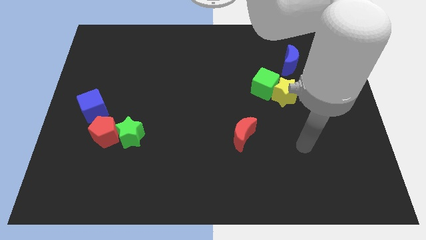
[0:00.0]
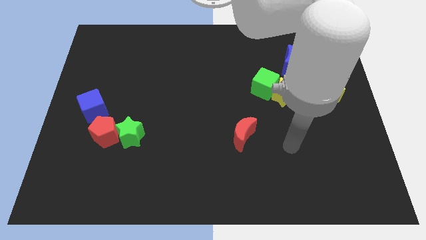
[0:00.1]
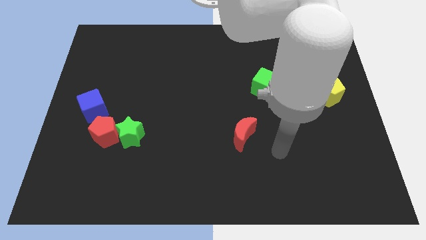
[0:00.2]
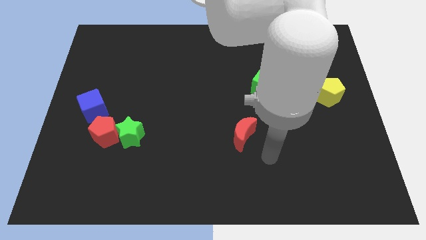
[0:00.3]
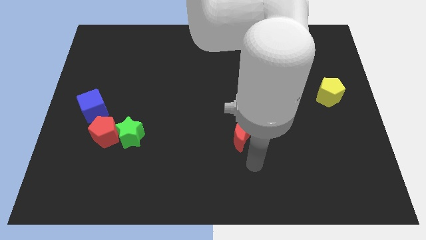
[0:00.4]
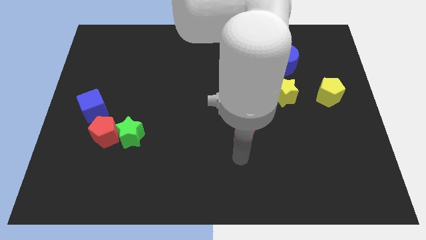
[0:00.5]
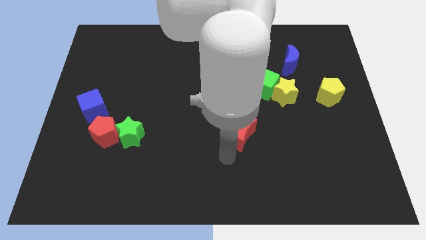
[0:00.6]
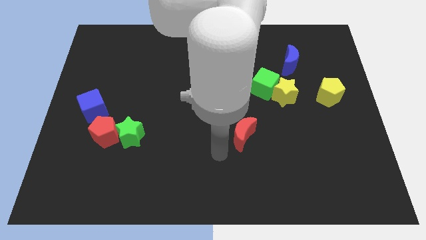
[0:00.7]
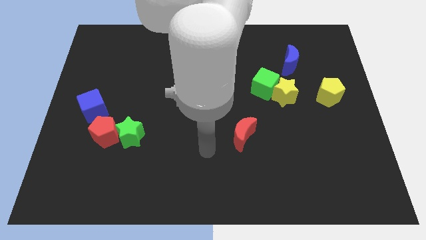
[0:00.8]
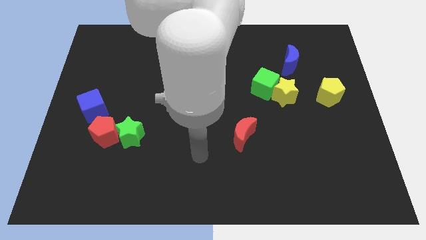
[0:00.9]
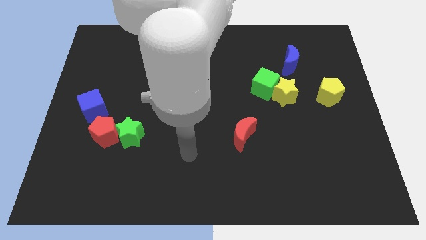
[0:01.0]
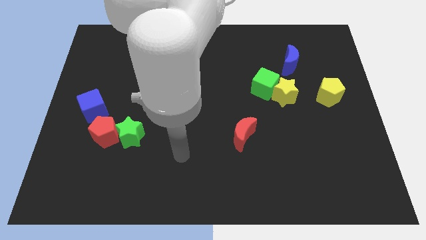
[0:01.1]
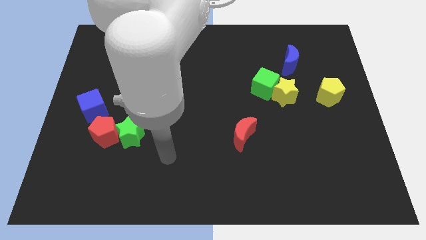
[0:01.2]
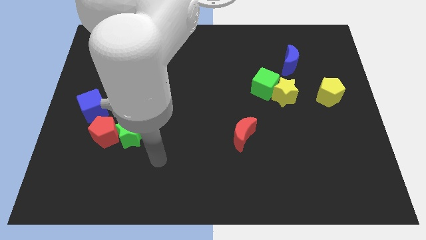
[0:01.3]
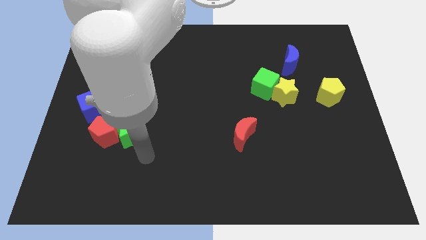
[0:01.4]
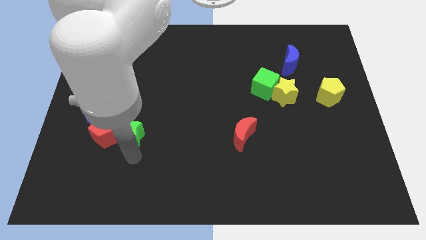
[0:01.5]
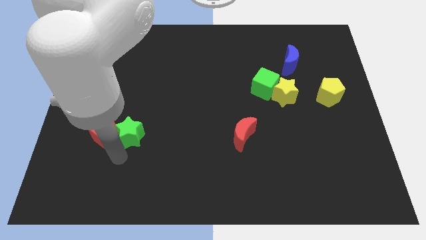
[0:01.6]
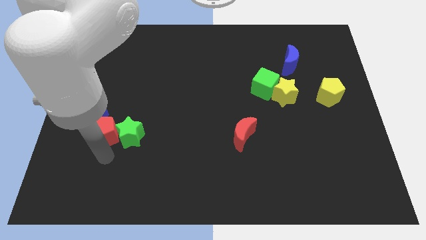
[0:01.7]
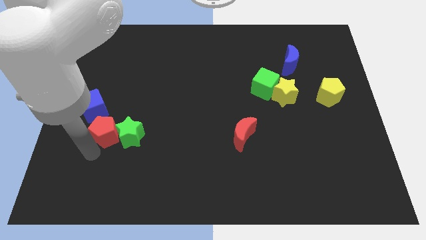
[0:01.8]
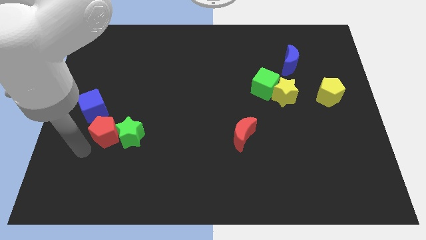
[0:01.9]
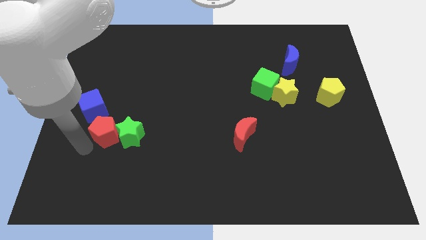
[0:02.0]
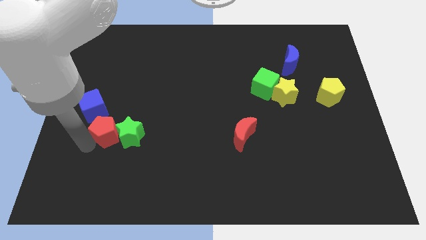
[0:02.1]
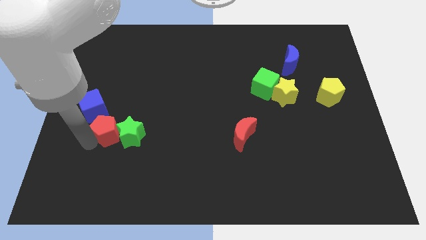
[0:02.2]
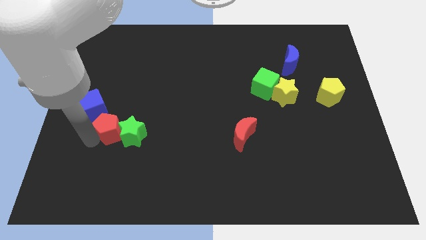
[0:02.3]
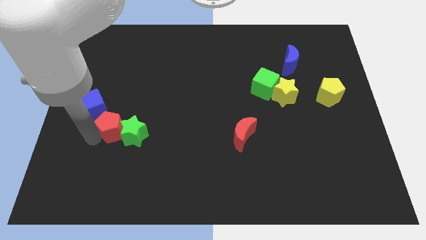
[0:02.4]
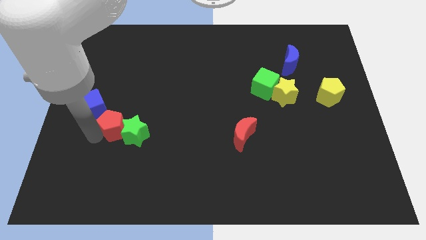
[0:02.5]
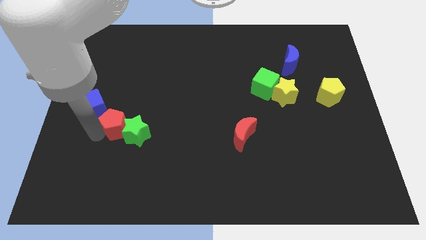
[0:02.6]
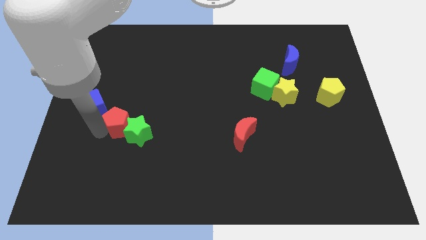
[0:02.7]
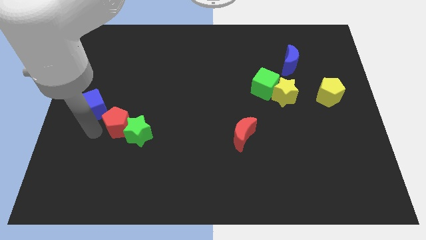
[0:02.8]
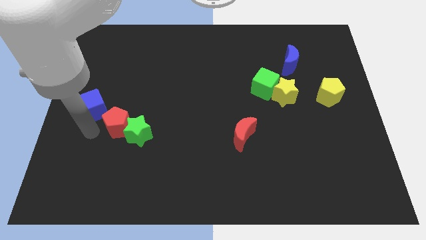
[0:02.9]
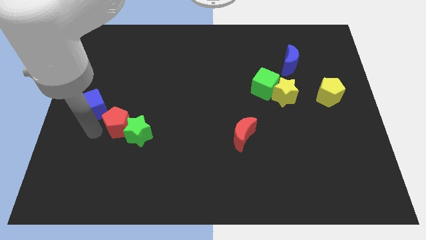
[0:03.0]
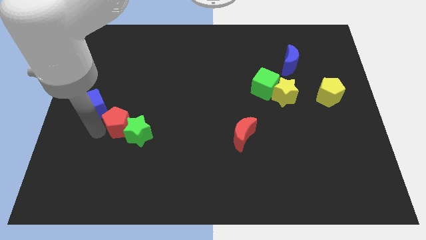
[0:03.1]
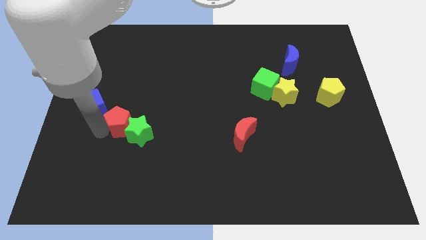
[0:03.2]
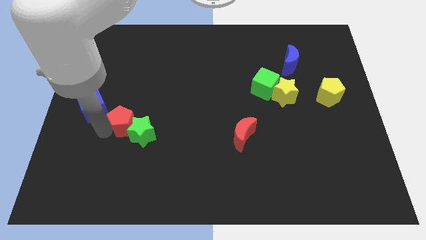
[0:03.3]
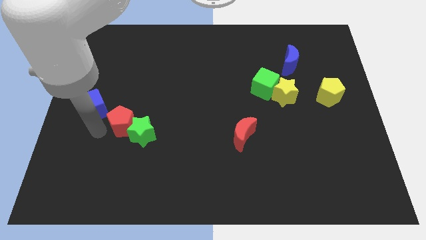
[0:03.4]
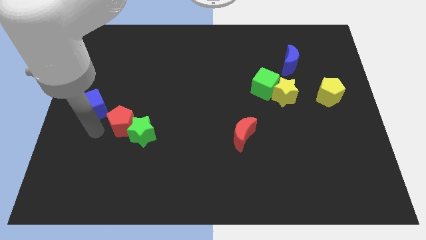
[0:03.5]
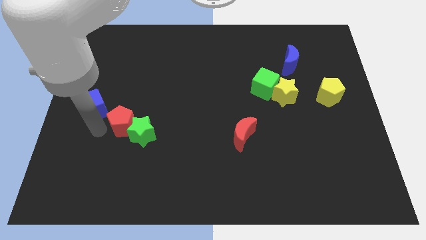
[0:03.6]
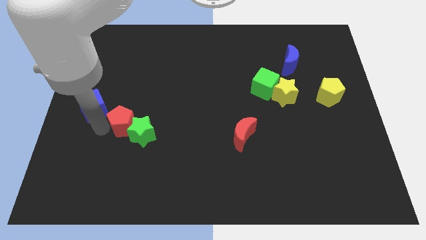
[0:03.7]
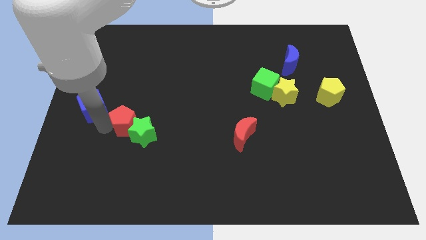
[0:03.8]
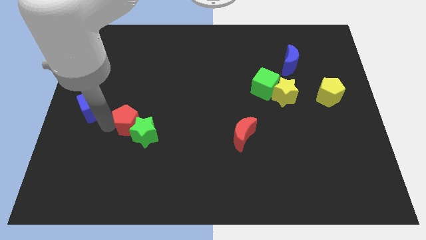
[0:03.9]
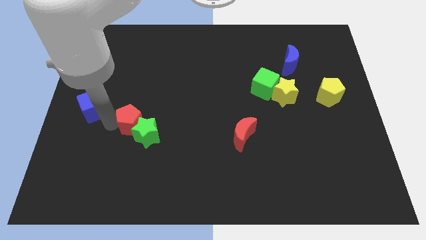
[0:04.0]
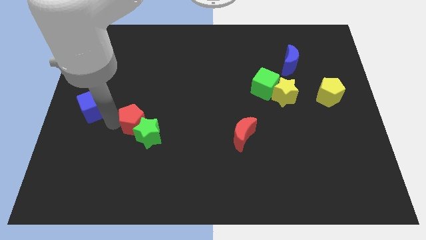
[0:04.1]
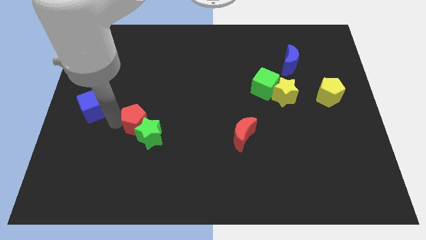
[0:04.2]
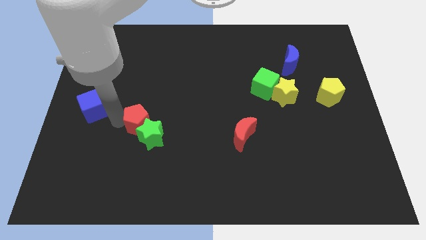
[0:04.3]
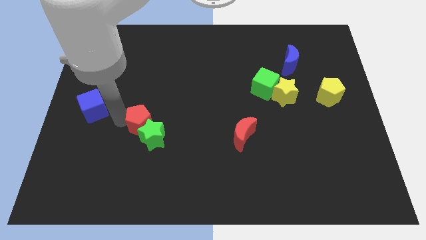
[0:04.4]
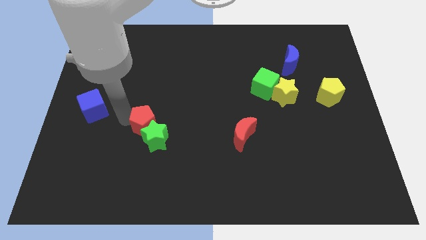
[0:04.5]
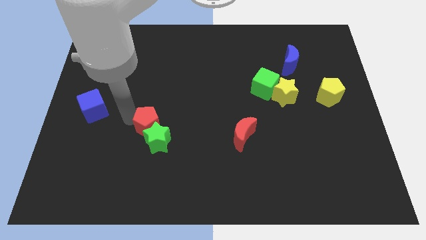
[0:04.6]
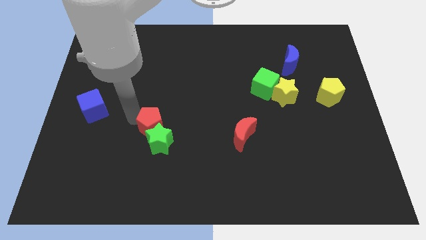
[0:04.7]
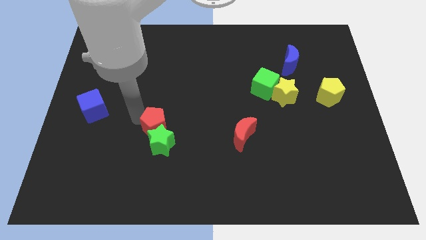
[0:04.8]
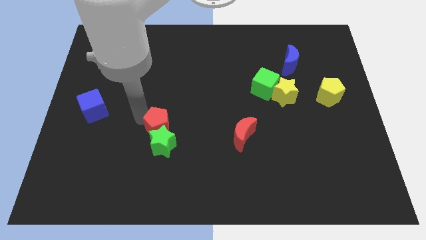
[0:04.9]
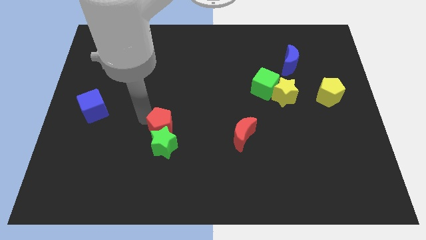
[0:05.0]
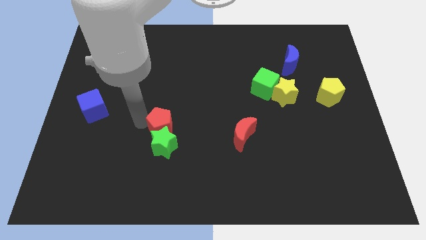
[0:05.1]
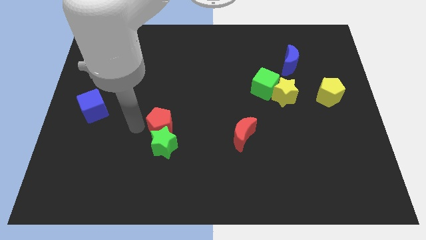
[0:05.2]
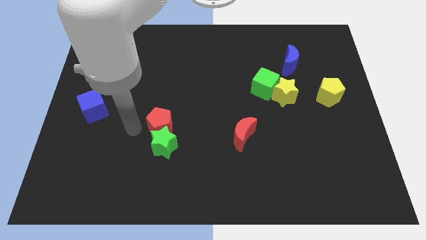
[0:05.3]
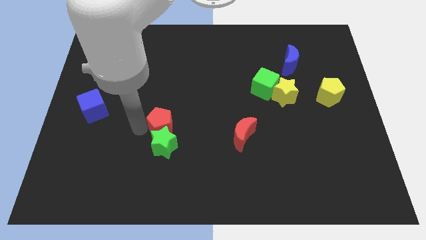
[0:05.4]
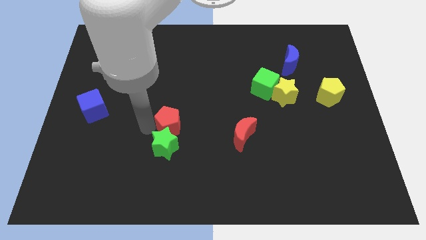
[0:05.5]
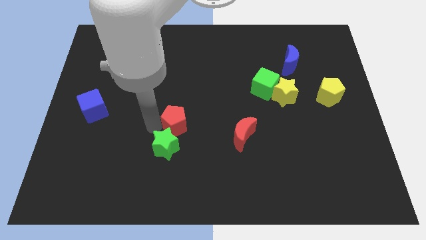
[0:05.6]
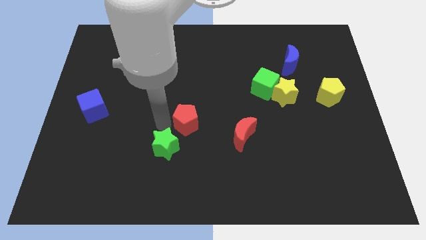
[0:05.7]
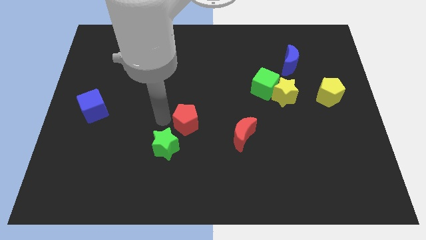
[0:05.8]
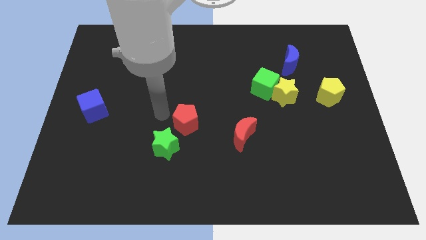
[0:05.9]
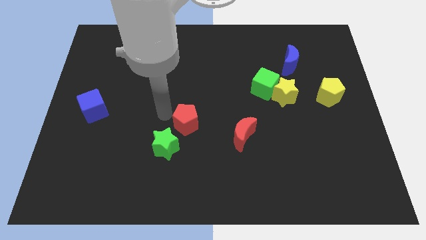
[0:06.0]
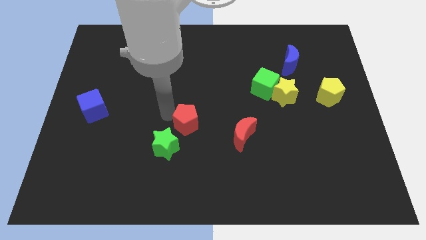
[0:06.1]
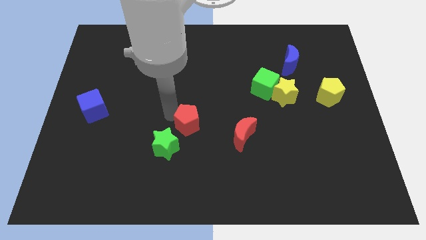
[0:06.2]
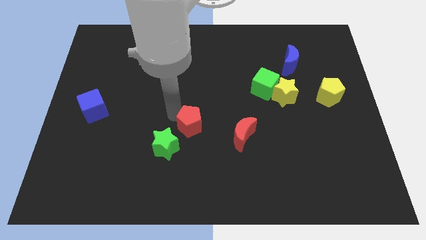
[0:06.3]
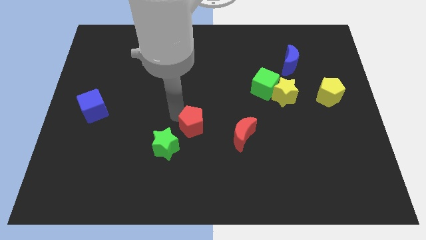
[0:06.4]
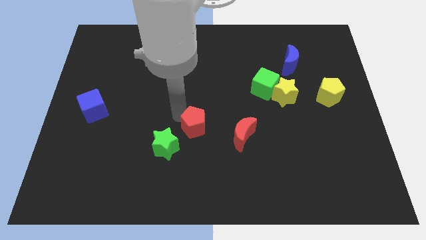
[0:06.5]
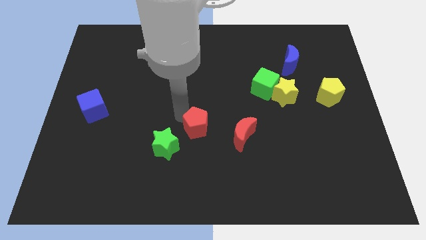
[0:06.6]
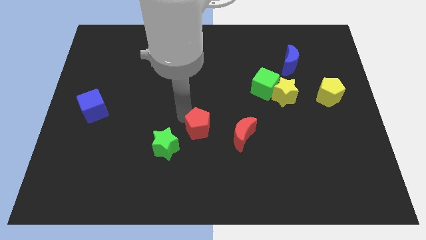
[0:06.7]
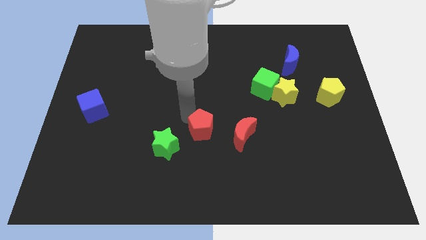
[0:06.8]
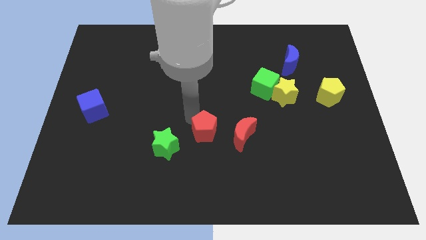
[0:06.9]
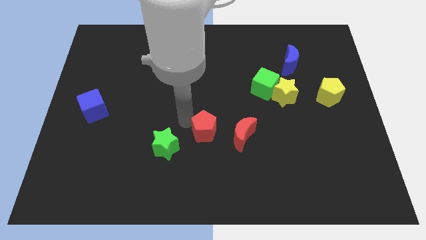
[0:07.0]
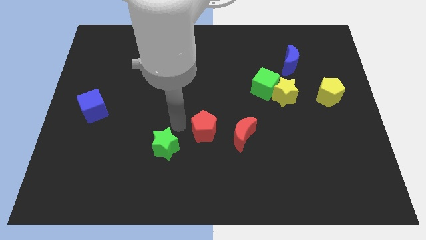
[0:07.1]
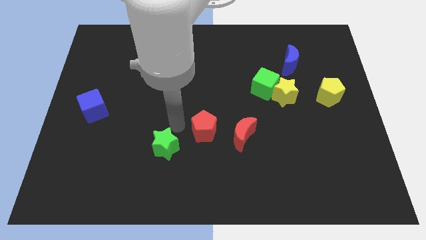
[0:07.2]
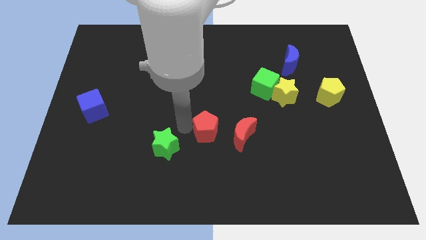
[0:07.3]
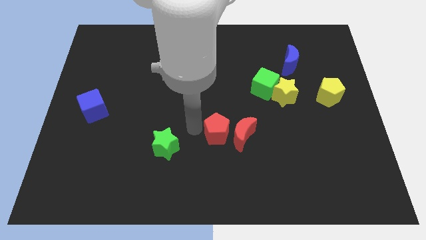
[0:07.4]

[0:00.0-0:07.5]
move the red pentagon towards the red moon
